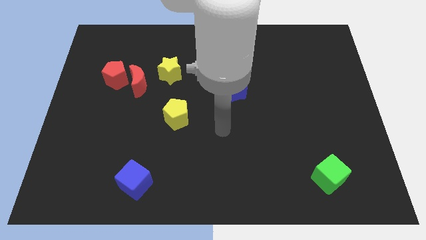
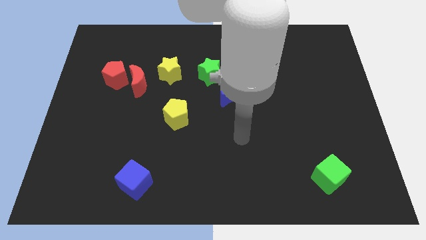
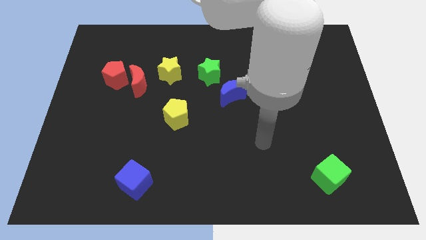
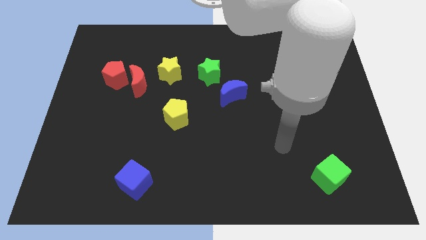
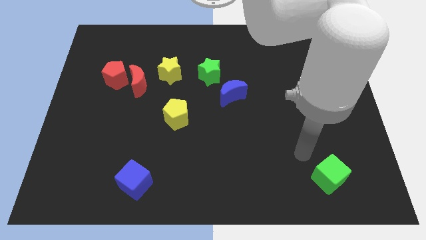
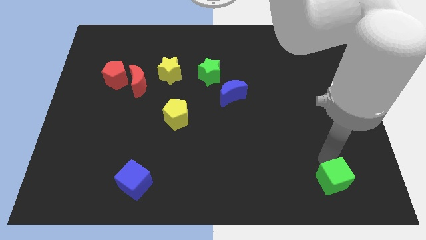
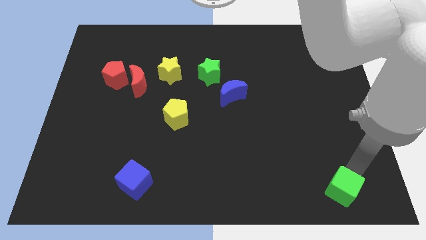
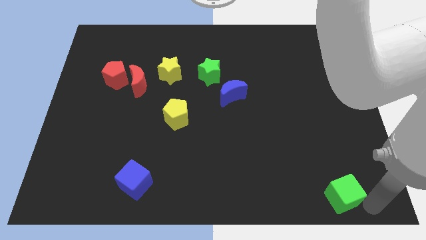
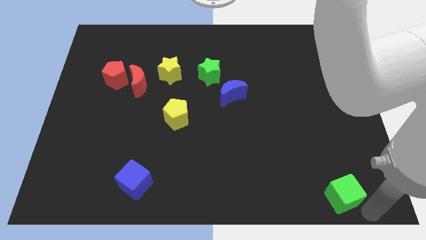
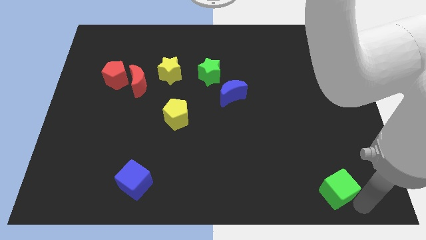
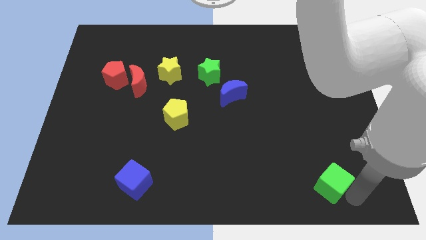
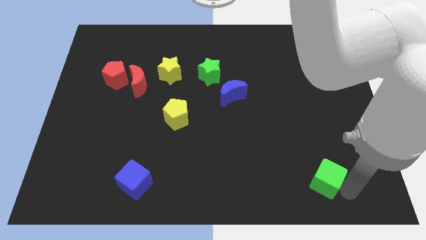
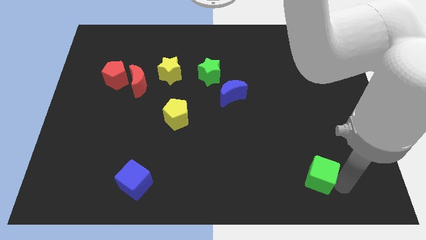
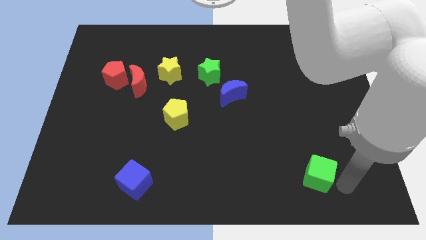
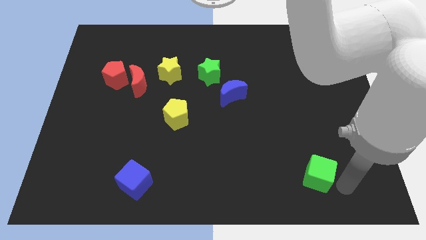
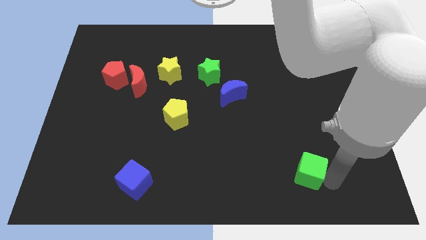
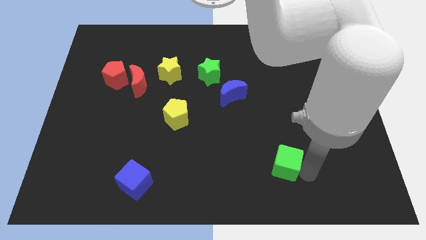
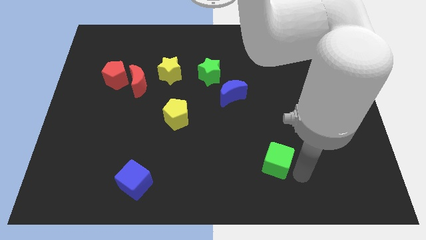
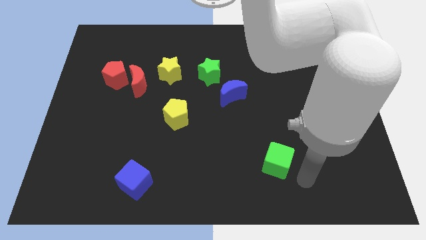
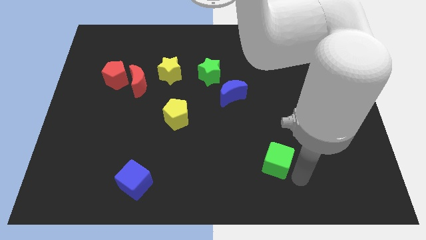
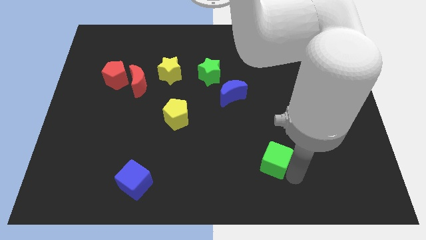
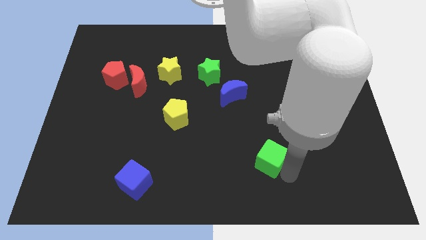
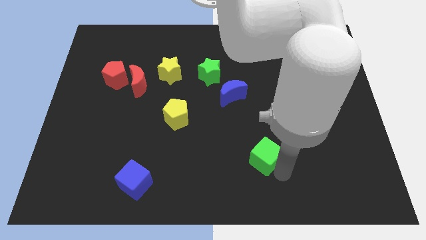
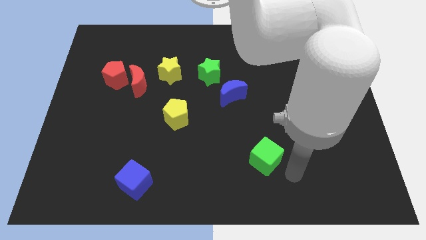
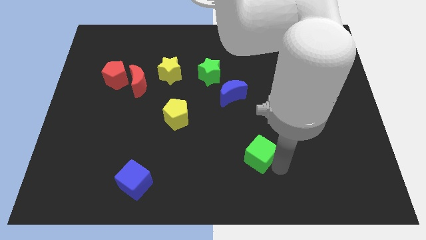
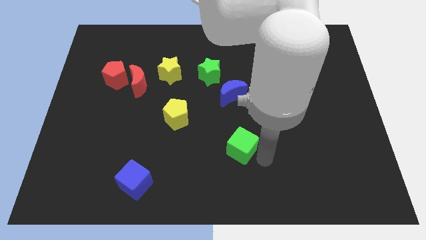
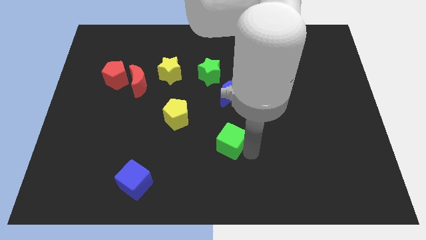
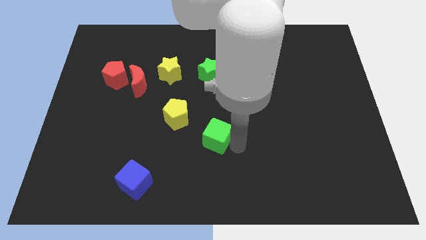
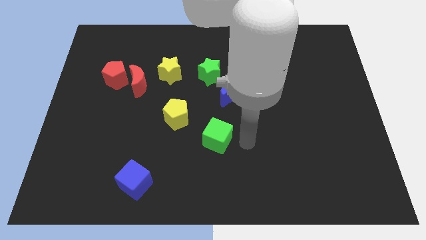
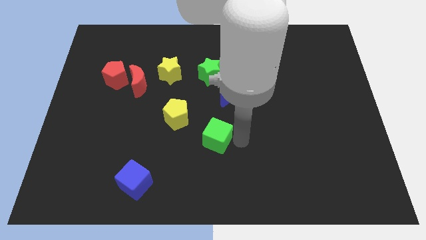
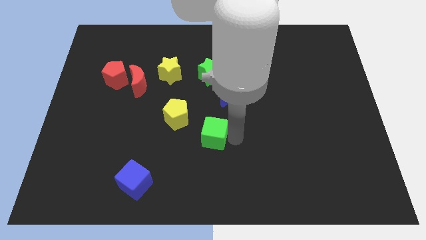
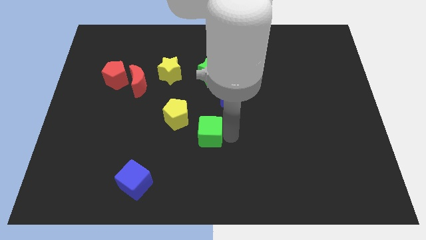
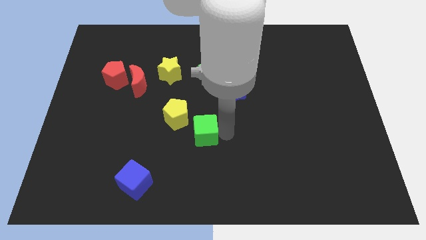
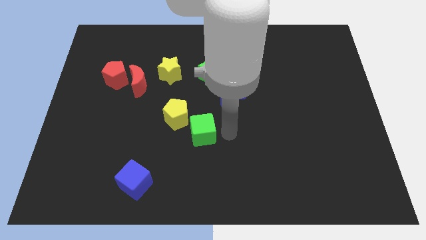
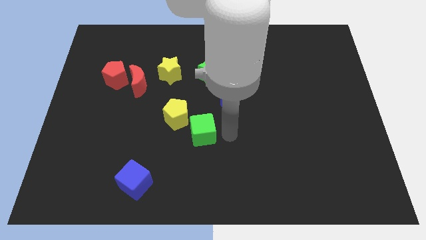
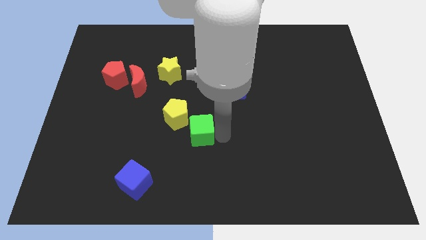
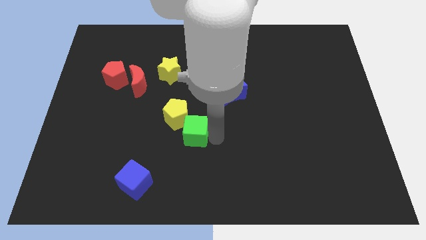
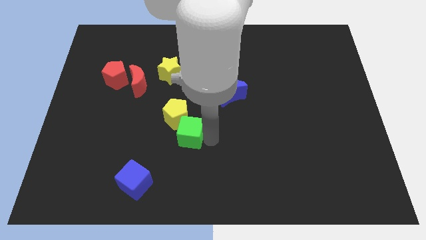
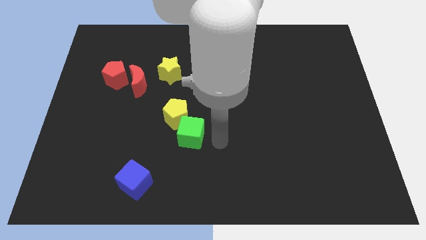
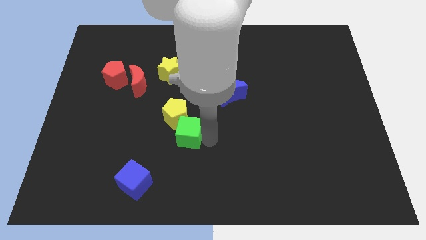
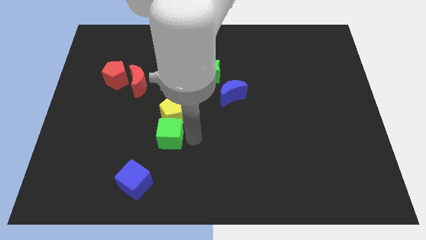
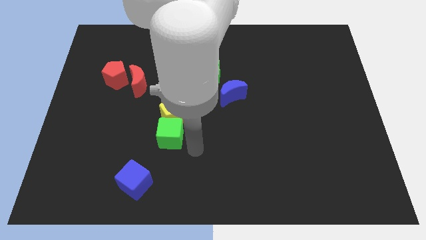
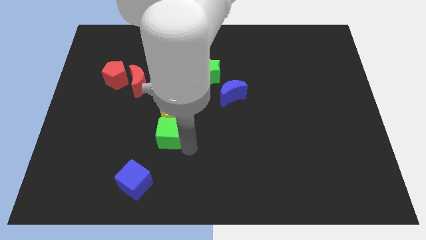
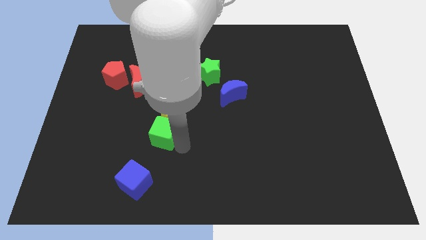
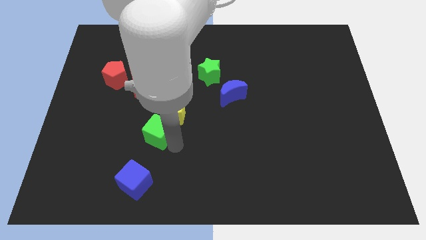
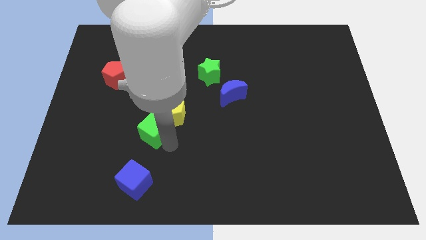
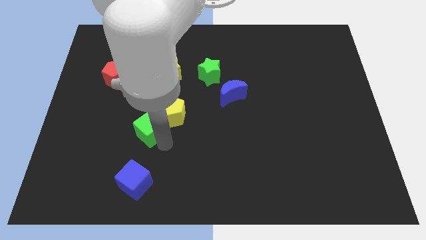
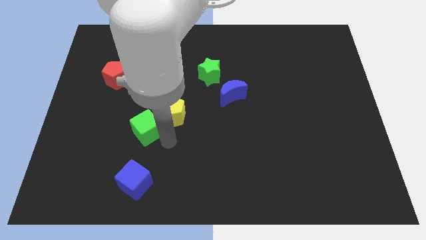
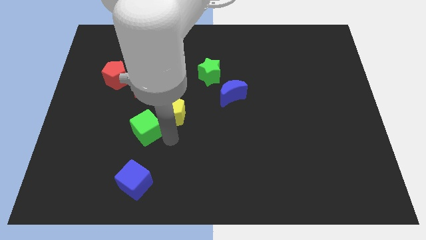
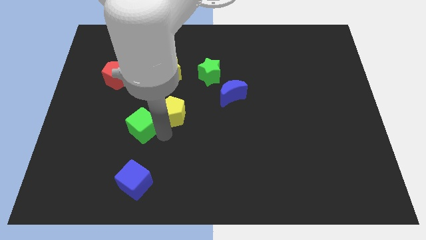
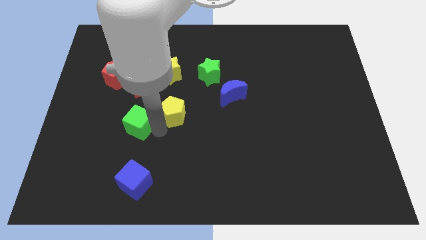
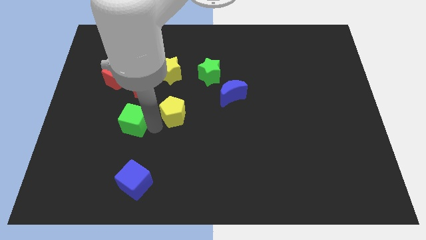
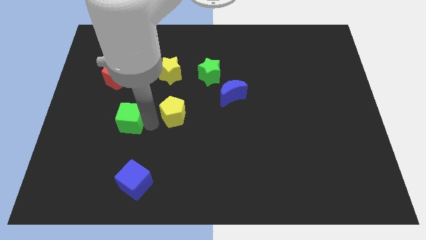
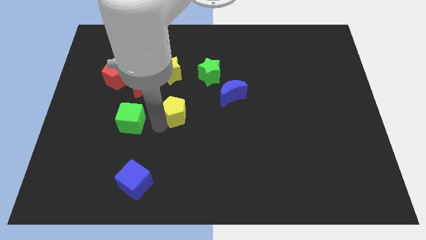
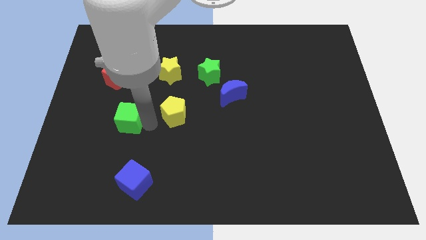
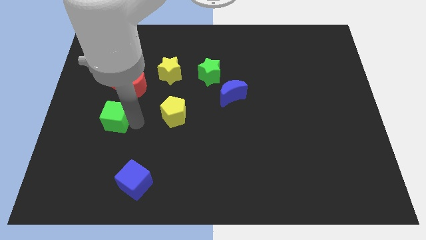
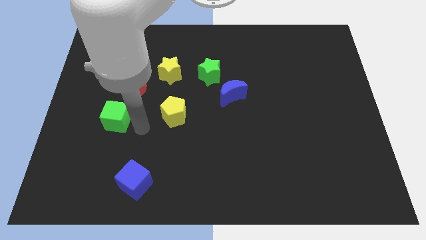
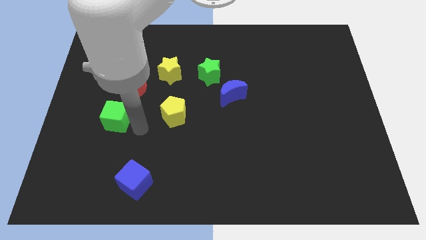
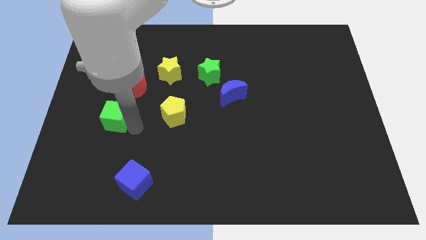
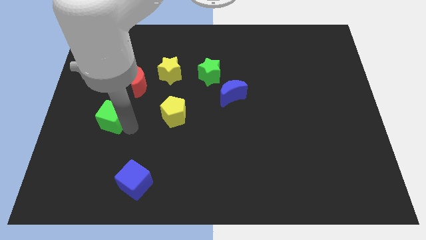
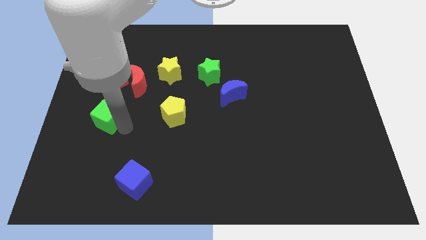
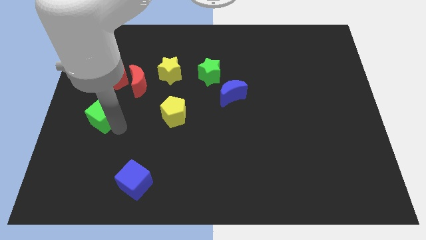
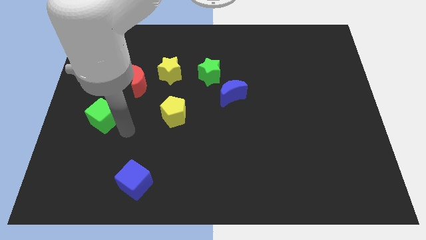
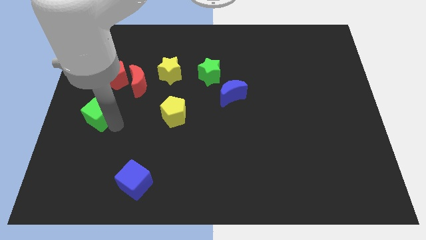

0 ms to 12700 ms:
push the green cube to the left side of the board

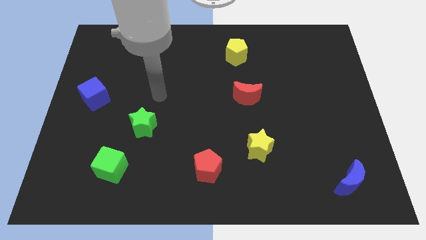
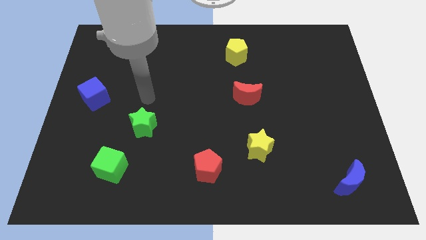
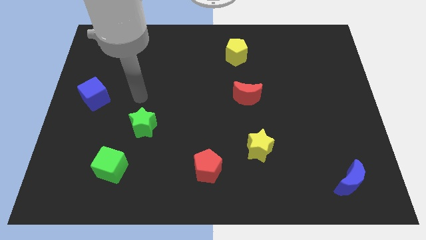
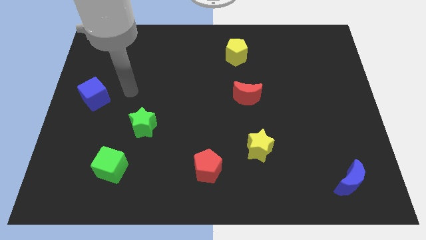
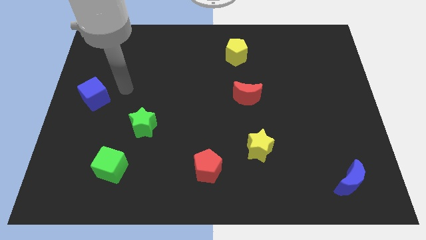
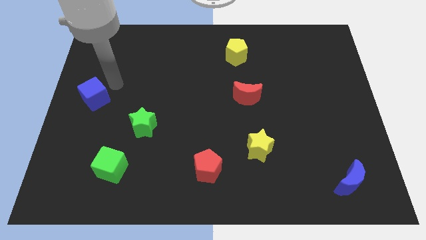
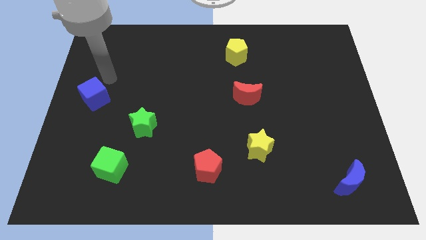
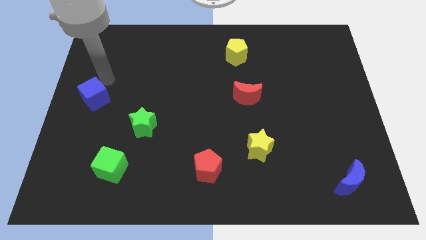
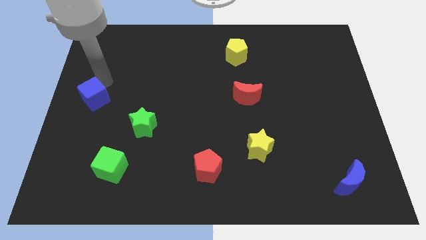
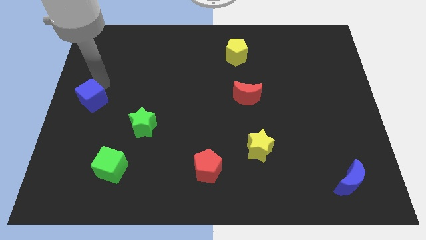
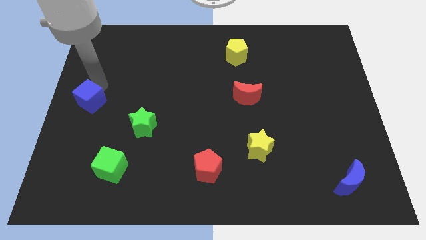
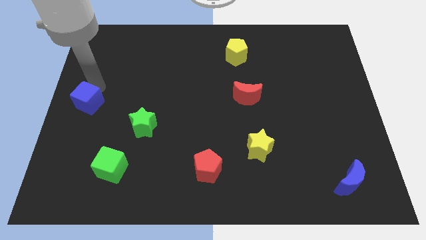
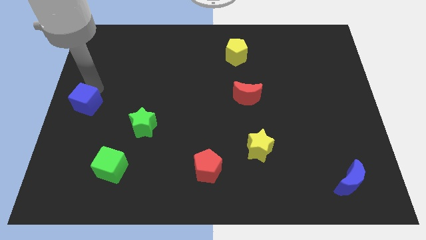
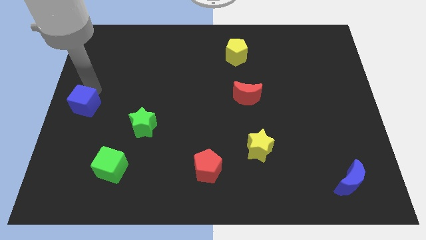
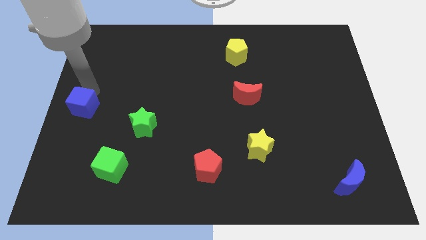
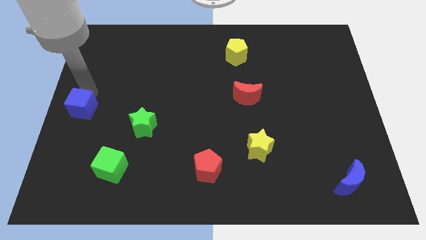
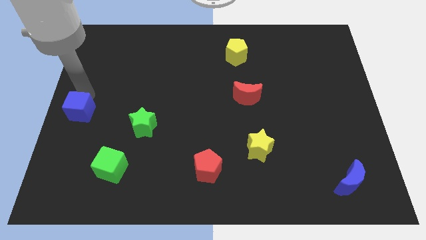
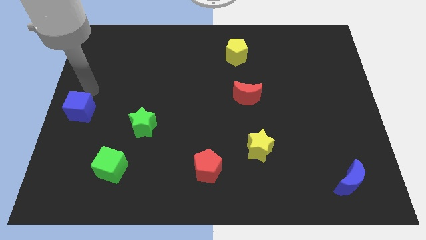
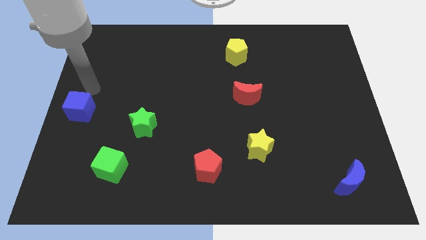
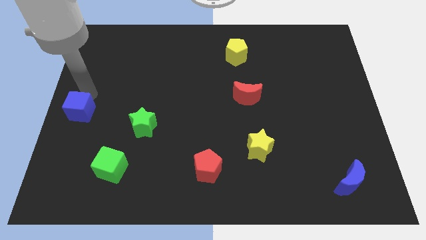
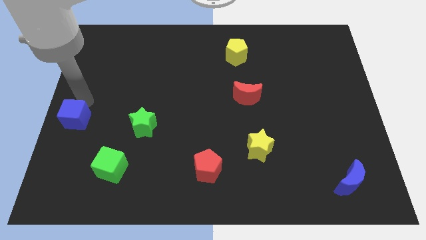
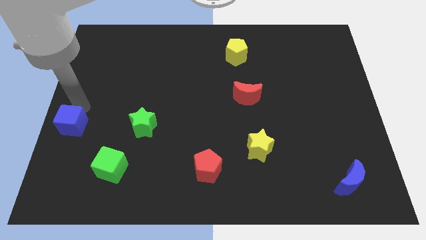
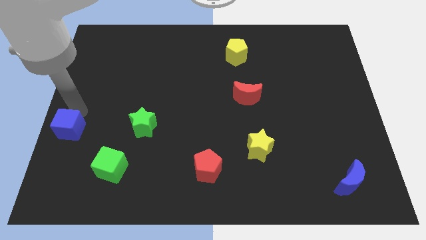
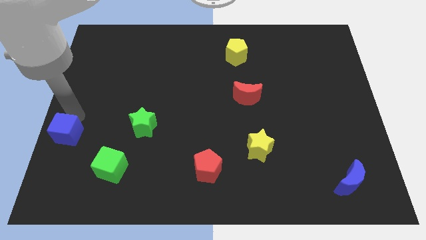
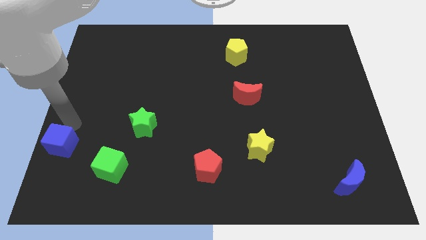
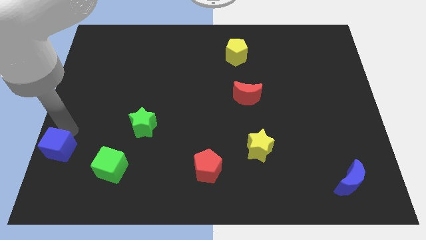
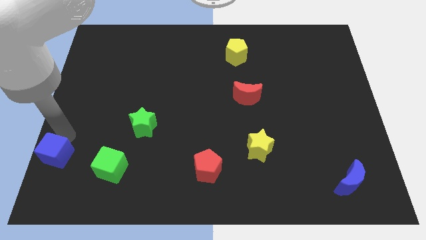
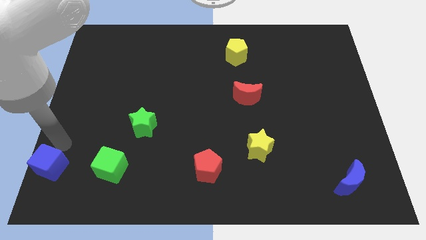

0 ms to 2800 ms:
slide the blue cube to the bottom left of the board
